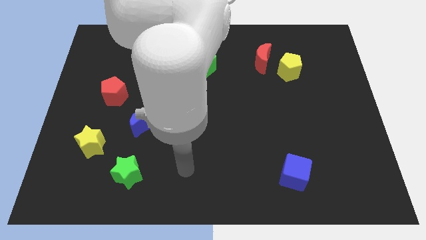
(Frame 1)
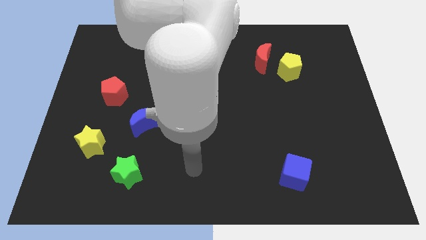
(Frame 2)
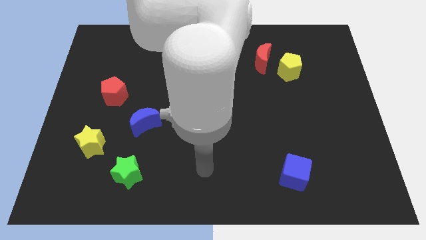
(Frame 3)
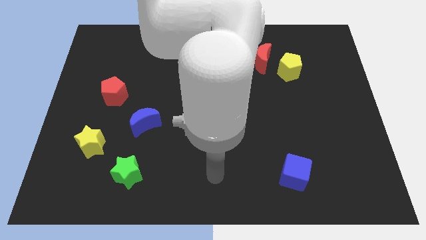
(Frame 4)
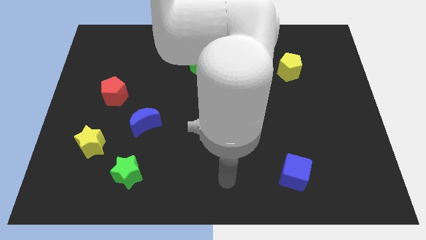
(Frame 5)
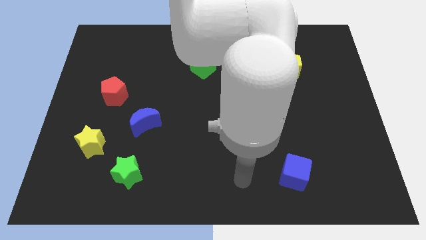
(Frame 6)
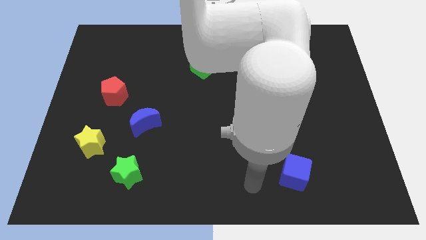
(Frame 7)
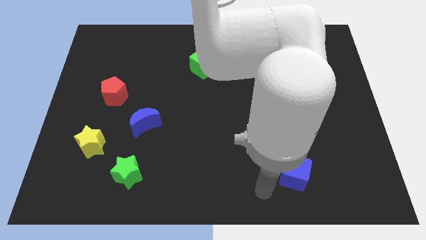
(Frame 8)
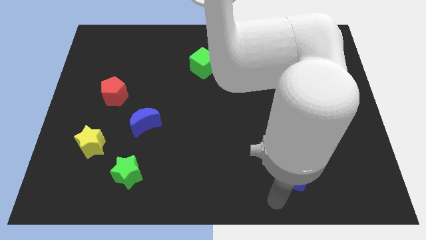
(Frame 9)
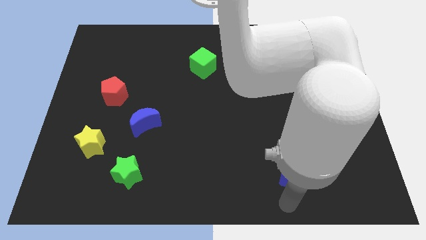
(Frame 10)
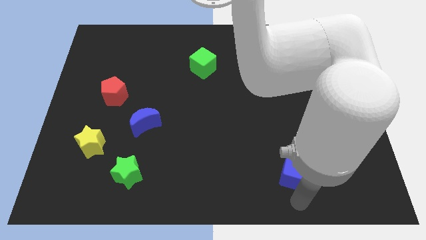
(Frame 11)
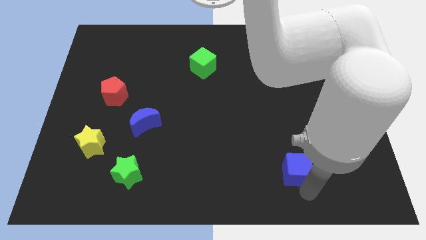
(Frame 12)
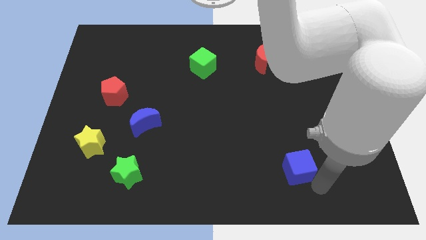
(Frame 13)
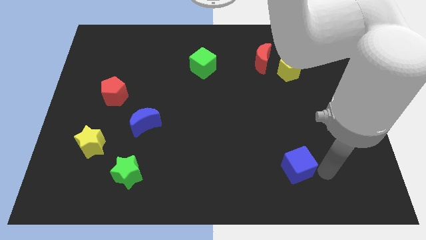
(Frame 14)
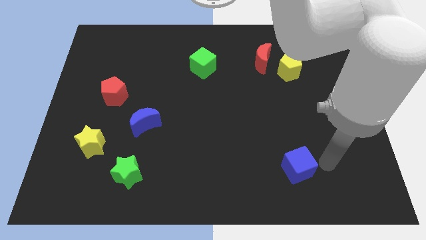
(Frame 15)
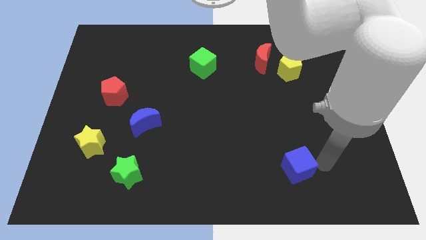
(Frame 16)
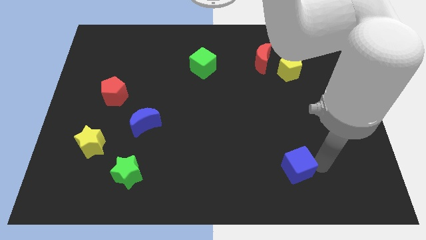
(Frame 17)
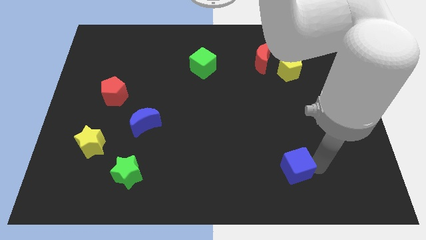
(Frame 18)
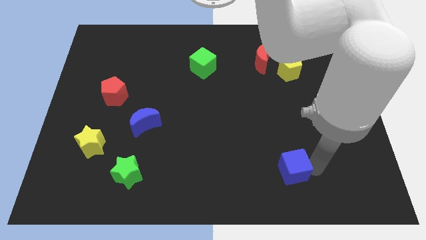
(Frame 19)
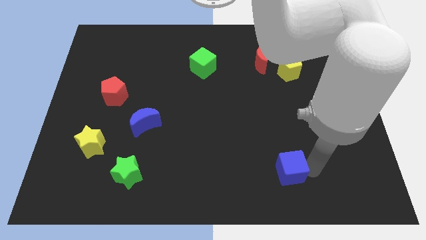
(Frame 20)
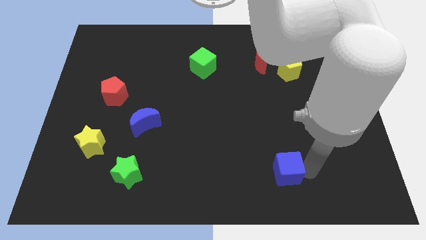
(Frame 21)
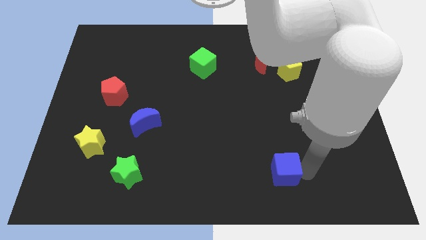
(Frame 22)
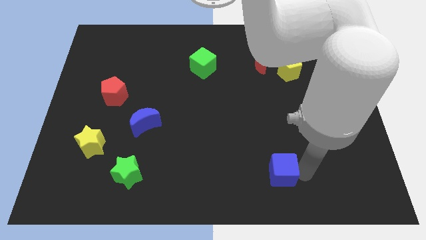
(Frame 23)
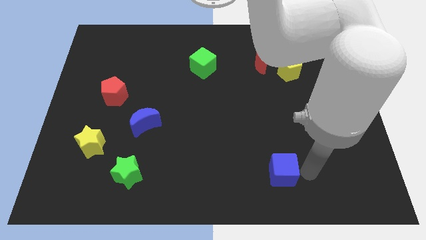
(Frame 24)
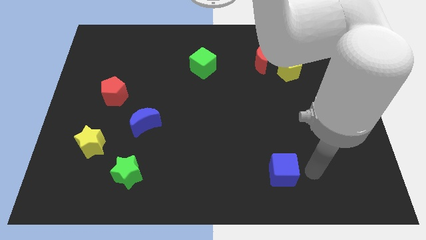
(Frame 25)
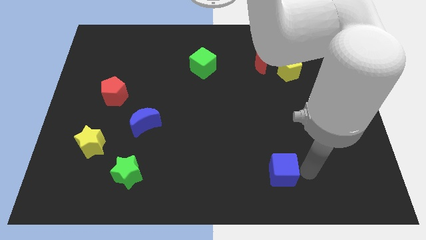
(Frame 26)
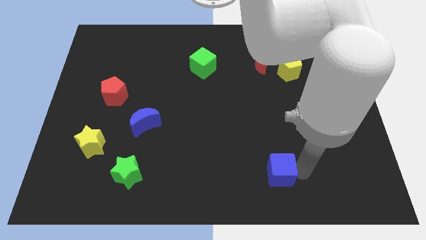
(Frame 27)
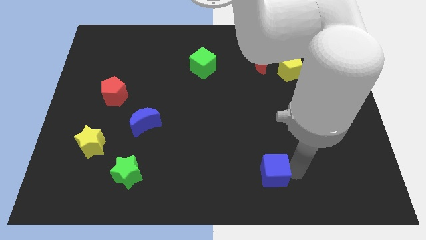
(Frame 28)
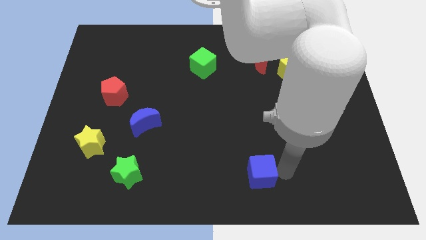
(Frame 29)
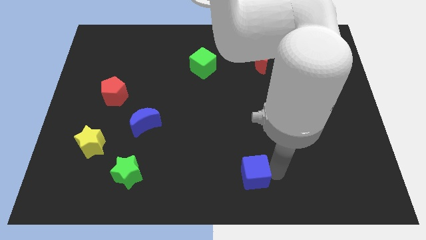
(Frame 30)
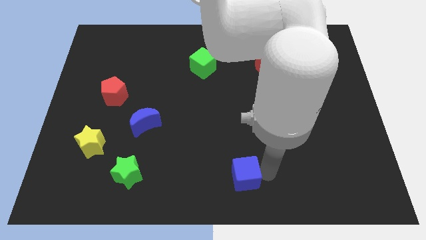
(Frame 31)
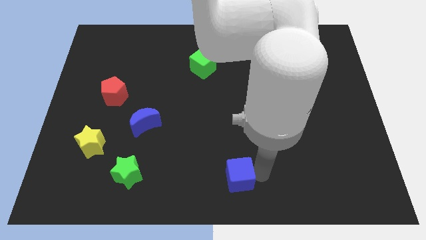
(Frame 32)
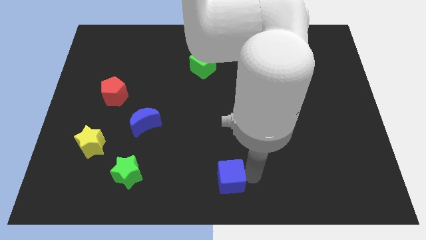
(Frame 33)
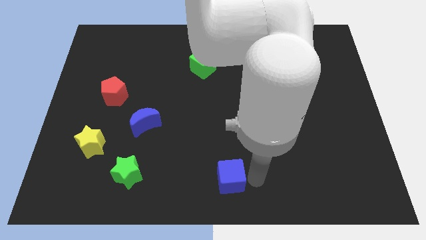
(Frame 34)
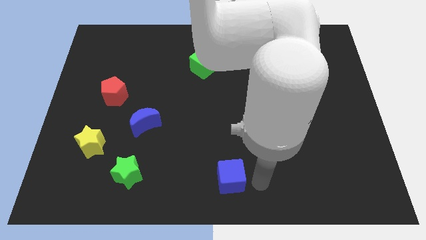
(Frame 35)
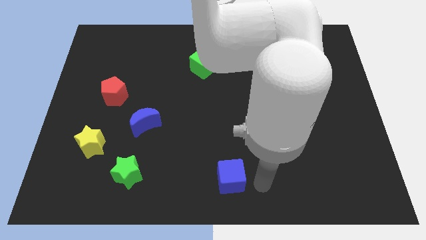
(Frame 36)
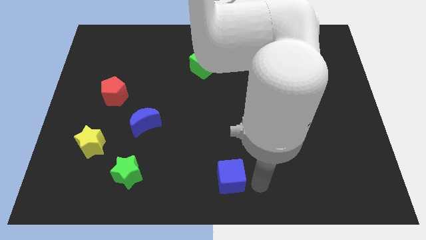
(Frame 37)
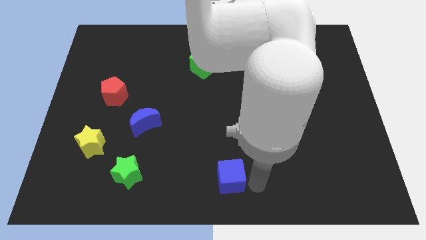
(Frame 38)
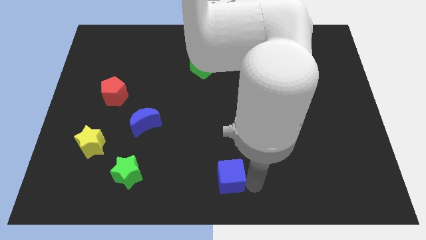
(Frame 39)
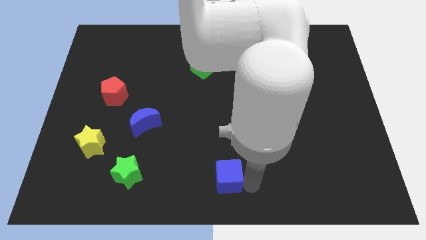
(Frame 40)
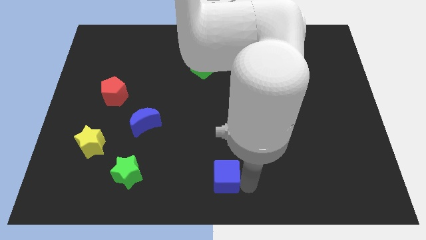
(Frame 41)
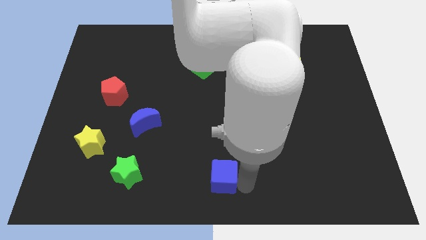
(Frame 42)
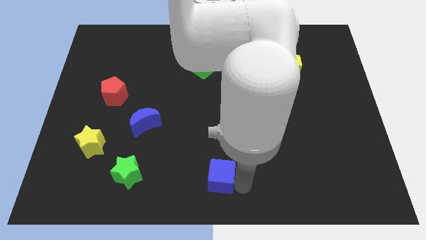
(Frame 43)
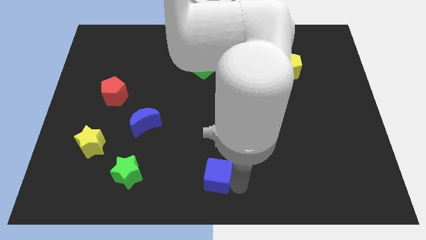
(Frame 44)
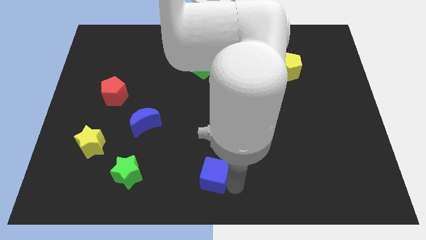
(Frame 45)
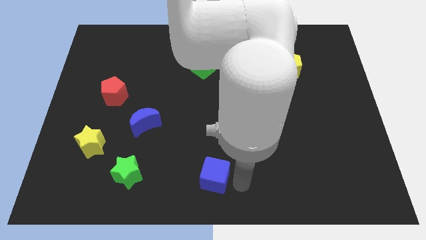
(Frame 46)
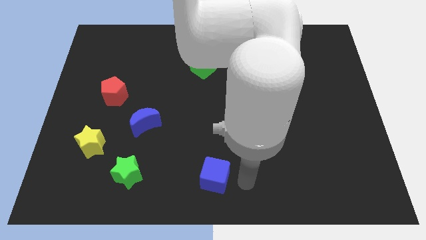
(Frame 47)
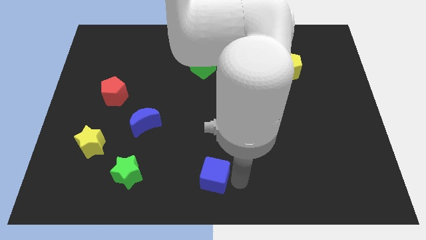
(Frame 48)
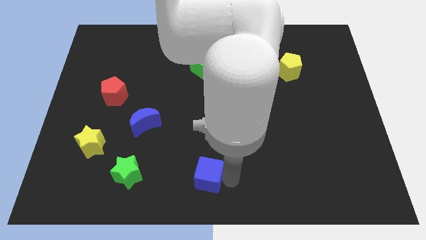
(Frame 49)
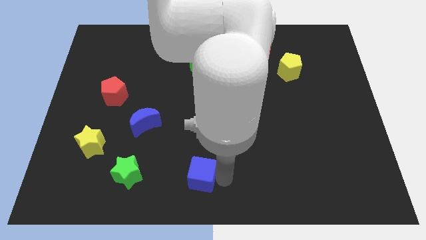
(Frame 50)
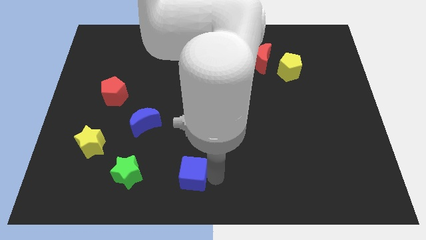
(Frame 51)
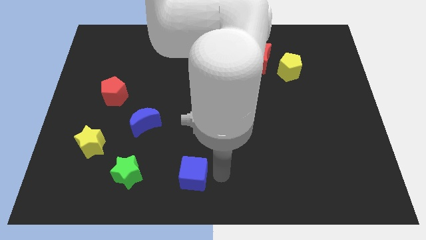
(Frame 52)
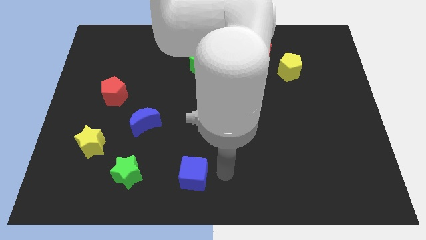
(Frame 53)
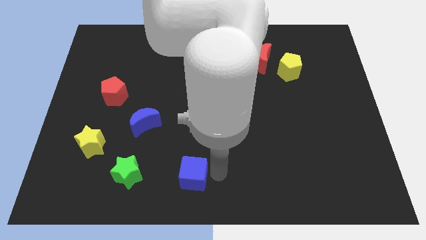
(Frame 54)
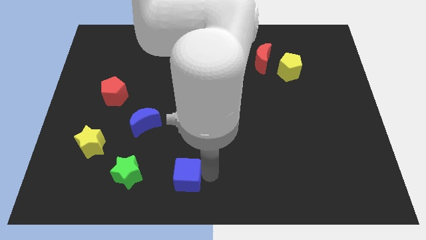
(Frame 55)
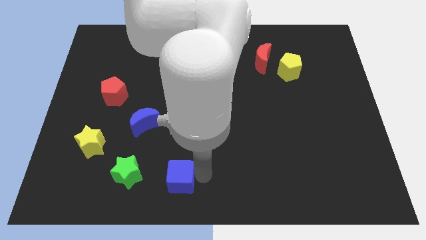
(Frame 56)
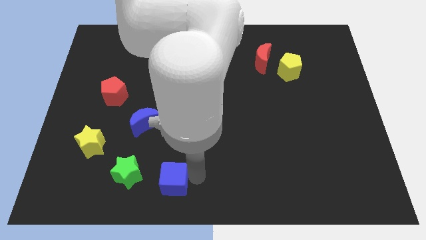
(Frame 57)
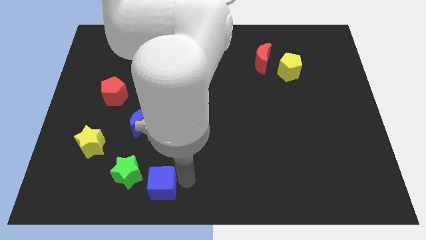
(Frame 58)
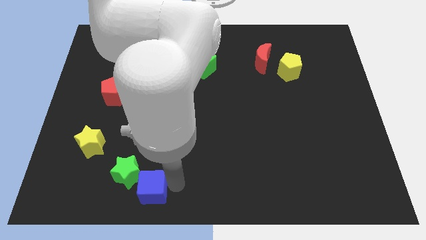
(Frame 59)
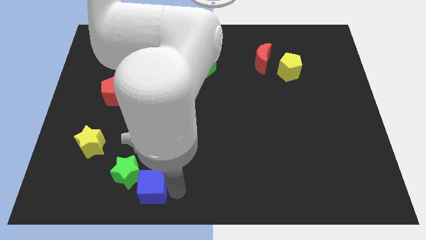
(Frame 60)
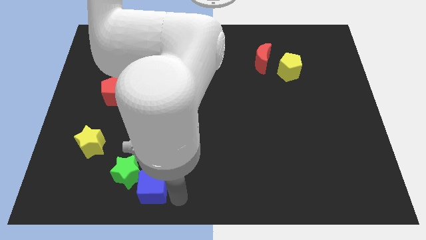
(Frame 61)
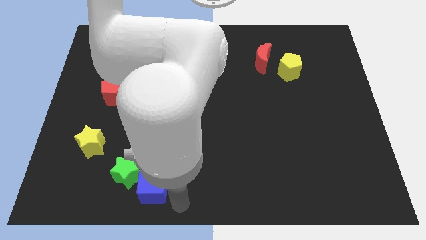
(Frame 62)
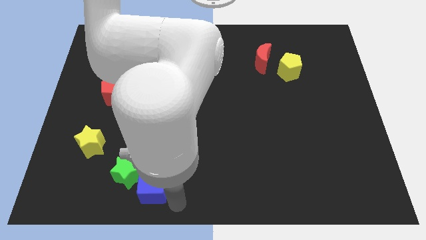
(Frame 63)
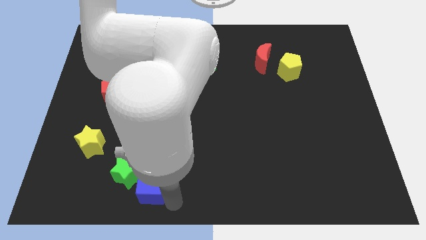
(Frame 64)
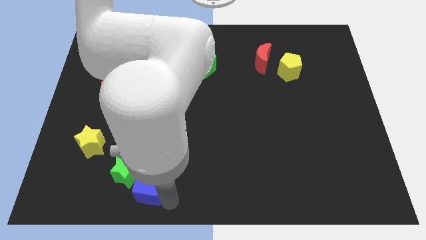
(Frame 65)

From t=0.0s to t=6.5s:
move the blue cube to the green star

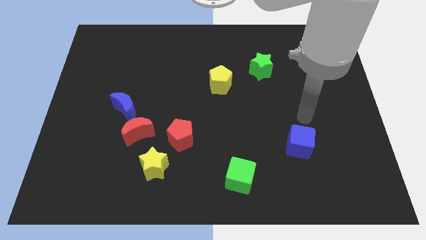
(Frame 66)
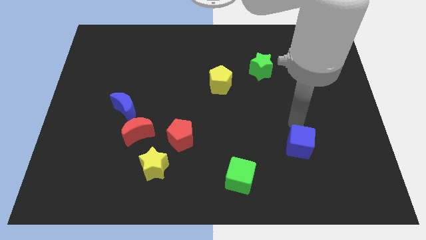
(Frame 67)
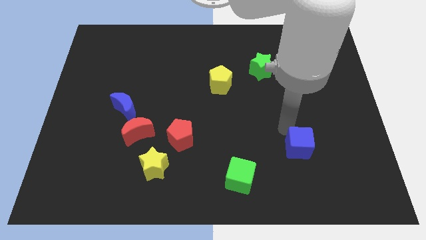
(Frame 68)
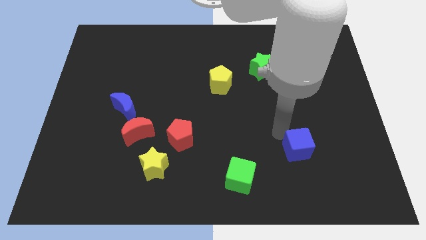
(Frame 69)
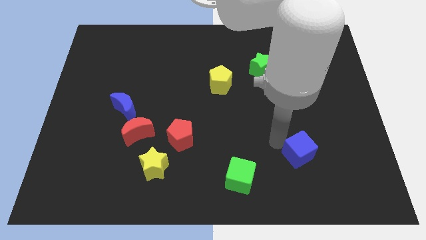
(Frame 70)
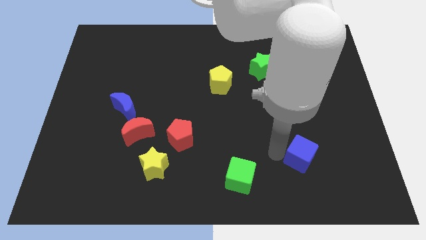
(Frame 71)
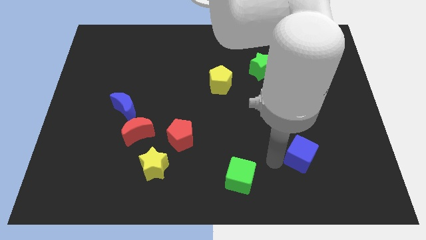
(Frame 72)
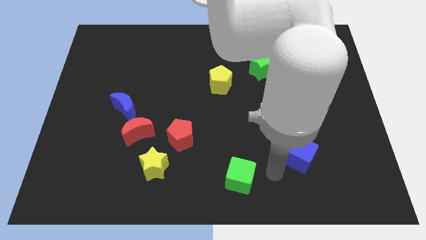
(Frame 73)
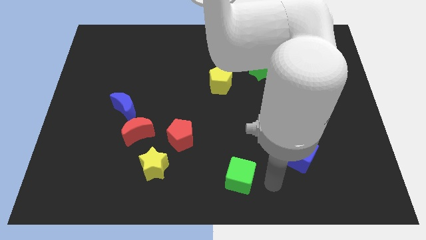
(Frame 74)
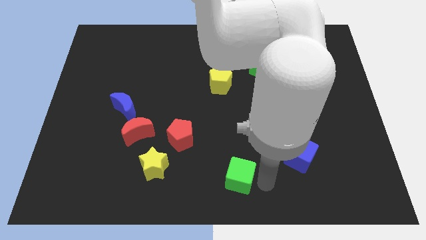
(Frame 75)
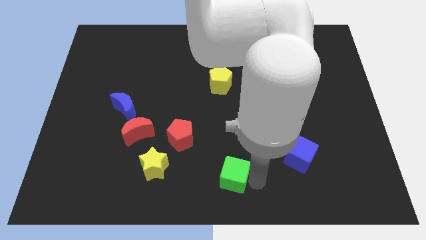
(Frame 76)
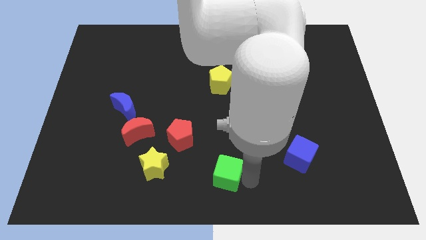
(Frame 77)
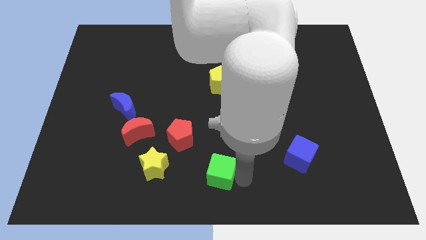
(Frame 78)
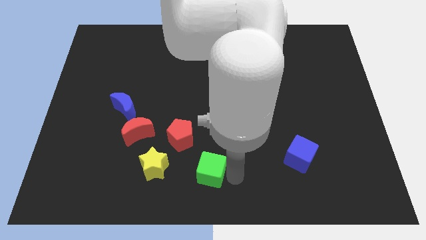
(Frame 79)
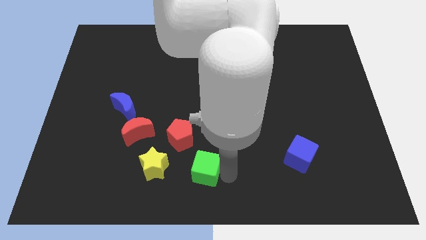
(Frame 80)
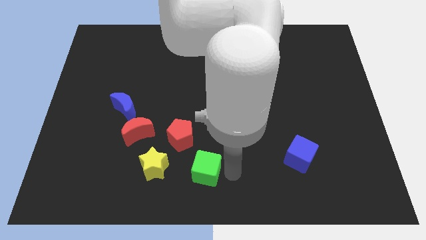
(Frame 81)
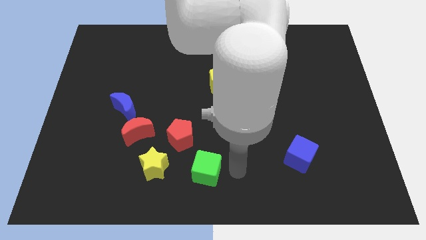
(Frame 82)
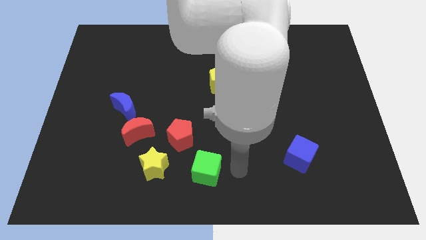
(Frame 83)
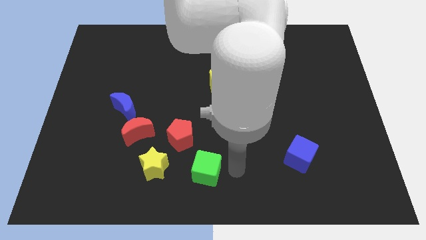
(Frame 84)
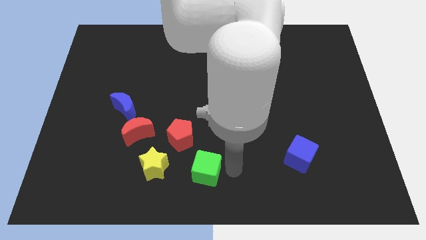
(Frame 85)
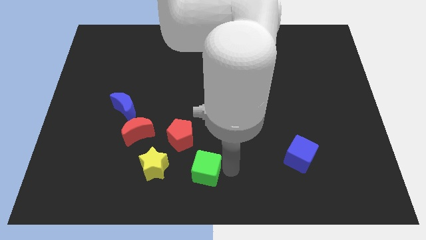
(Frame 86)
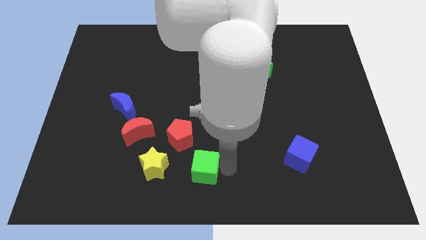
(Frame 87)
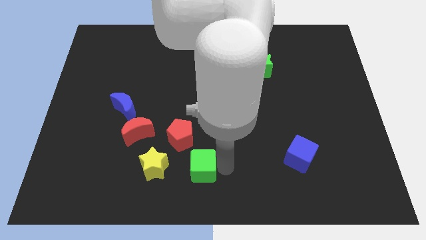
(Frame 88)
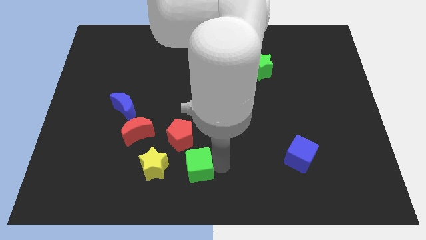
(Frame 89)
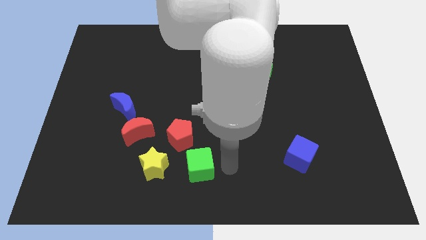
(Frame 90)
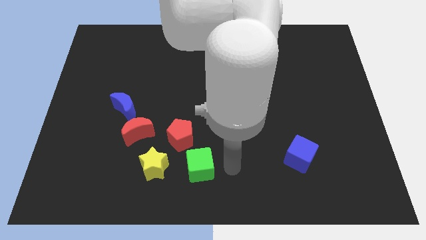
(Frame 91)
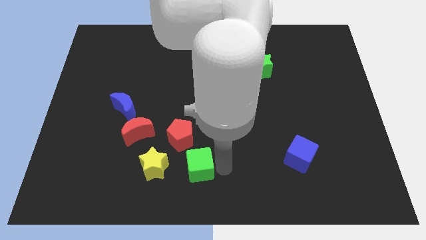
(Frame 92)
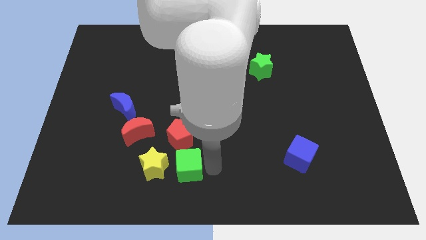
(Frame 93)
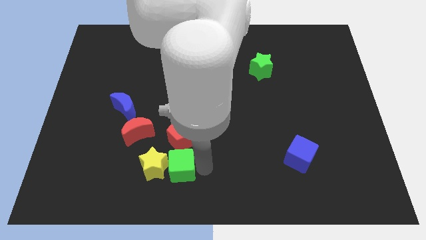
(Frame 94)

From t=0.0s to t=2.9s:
move the green cube next to the yellow star
